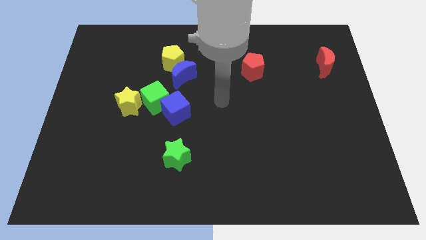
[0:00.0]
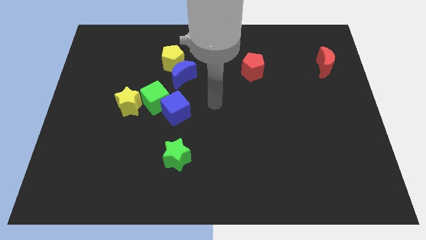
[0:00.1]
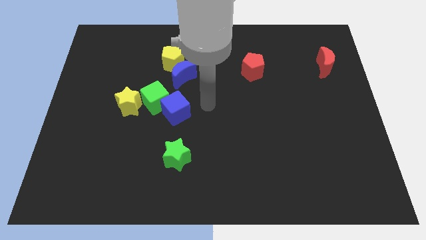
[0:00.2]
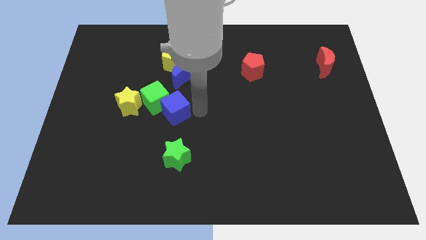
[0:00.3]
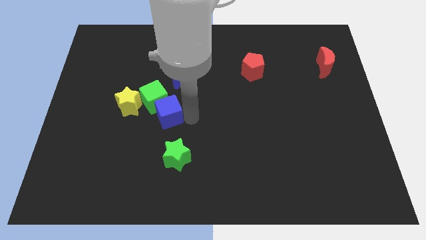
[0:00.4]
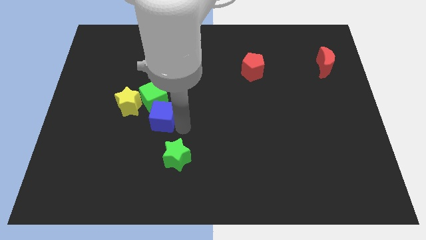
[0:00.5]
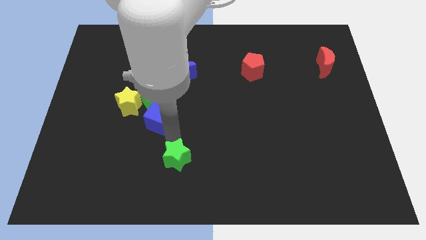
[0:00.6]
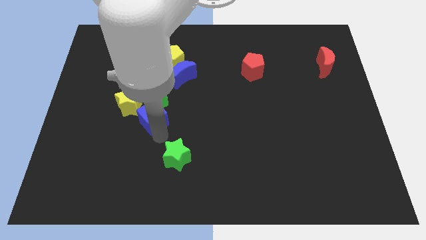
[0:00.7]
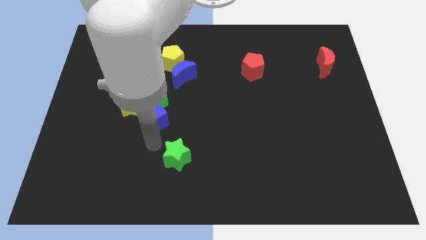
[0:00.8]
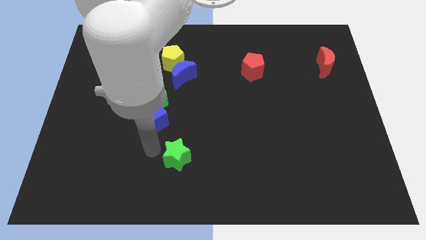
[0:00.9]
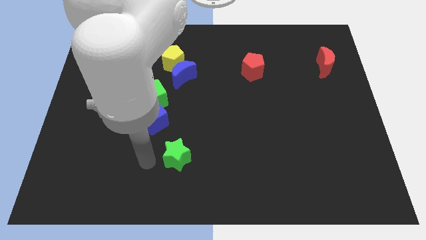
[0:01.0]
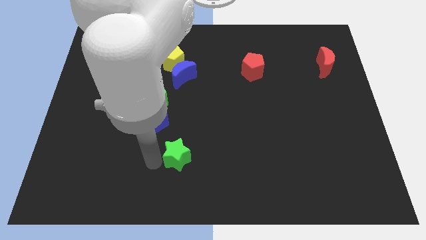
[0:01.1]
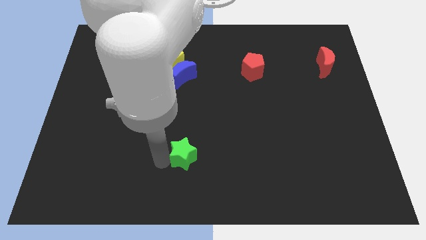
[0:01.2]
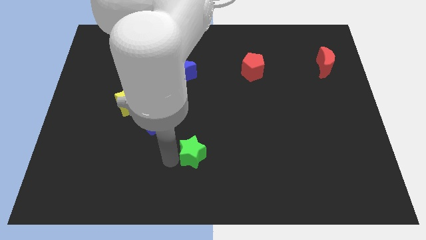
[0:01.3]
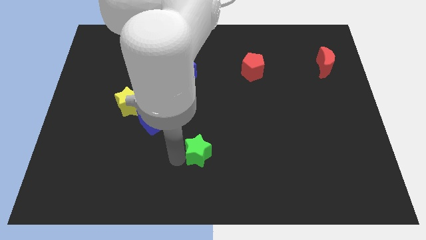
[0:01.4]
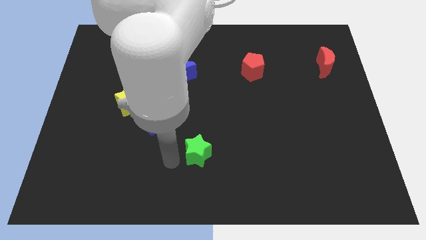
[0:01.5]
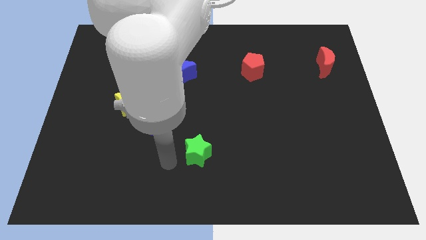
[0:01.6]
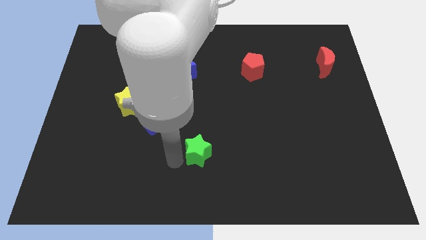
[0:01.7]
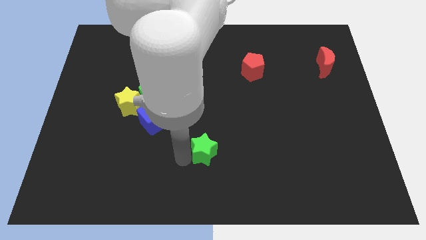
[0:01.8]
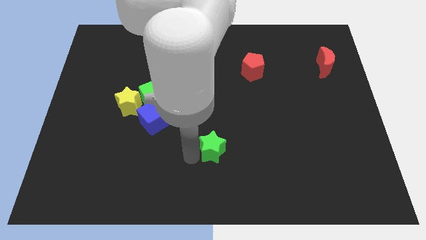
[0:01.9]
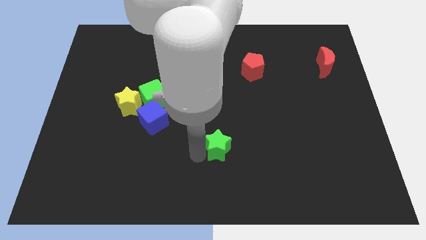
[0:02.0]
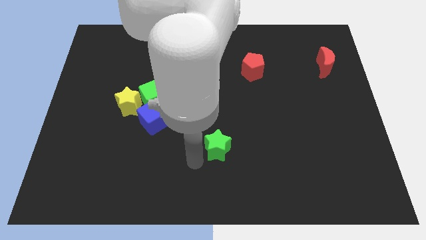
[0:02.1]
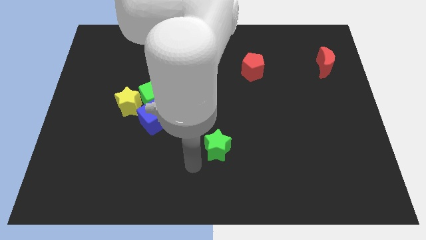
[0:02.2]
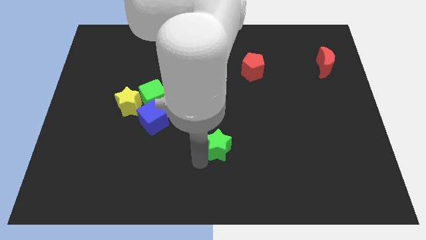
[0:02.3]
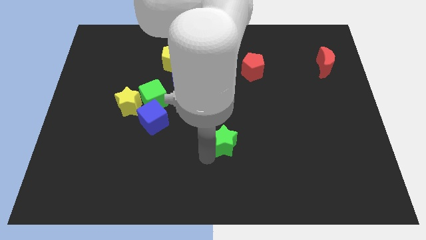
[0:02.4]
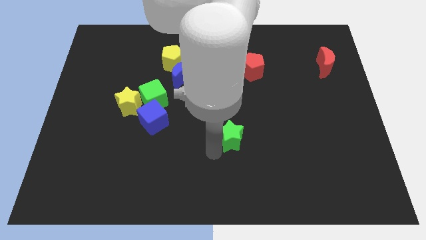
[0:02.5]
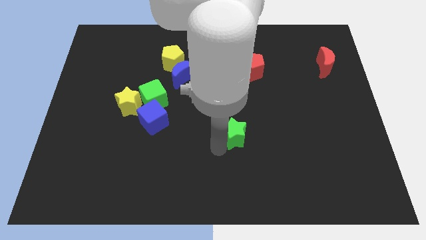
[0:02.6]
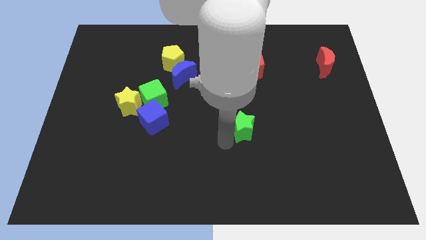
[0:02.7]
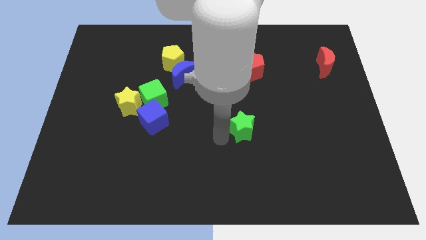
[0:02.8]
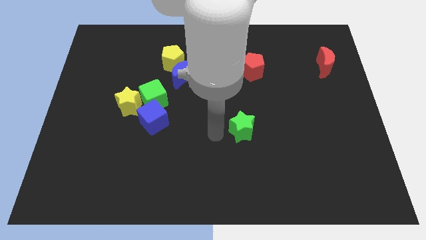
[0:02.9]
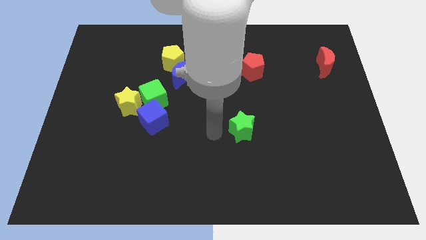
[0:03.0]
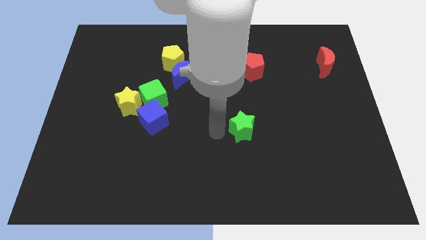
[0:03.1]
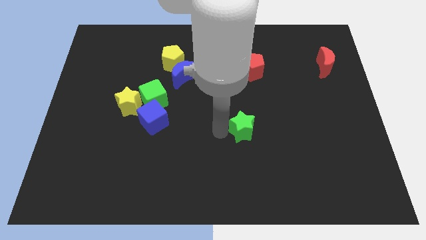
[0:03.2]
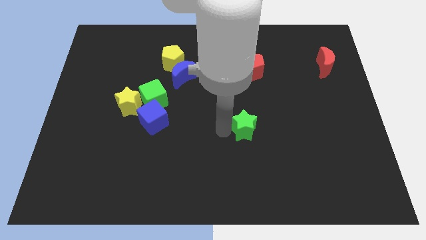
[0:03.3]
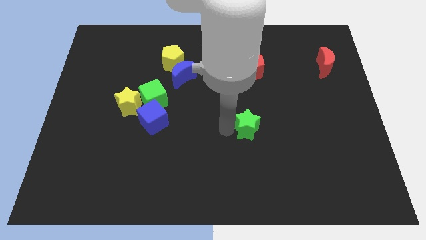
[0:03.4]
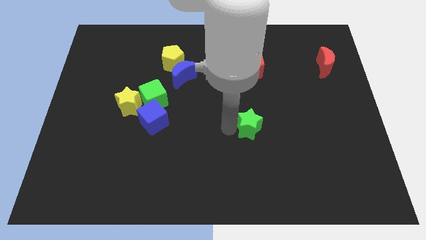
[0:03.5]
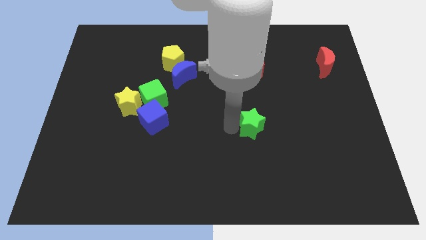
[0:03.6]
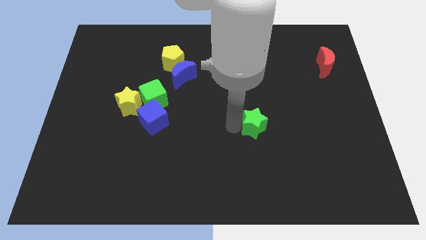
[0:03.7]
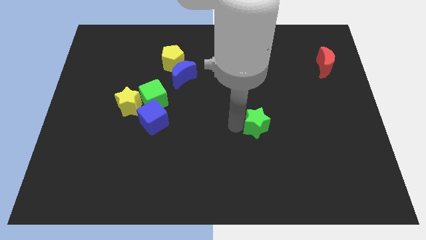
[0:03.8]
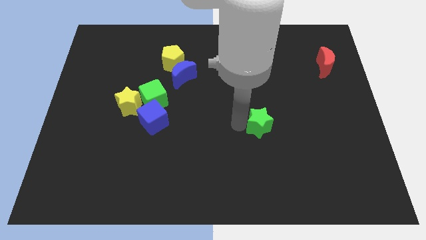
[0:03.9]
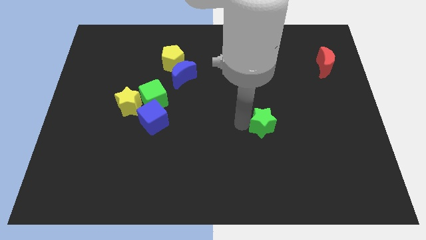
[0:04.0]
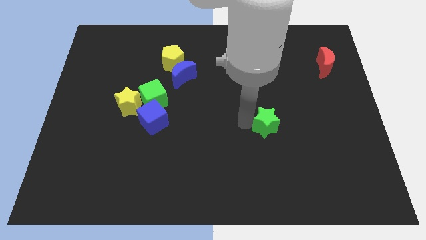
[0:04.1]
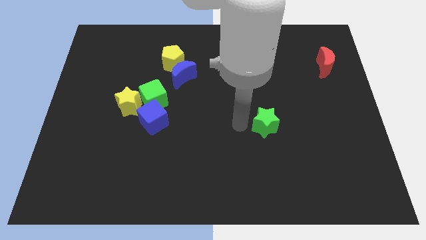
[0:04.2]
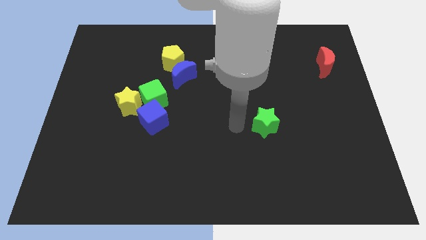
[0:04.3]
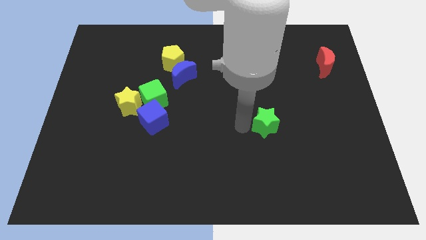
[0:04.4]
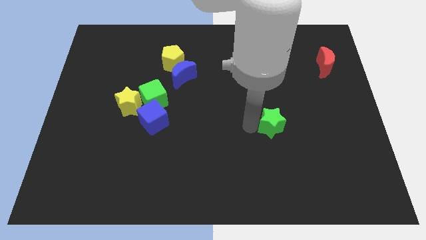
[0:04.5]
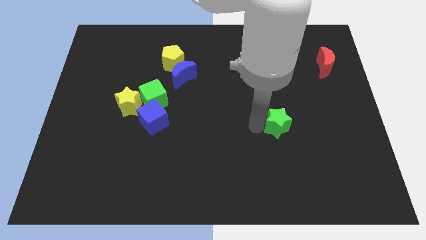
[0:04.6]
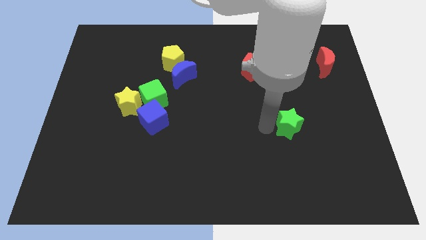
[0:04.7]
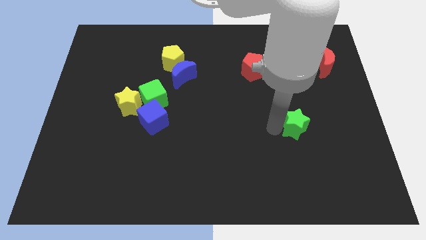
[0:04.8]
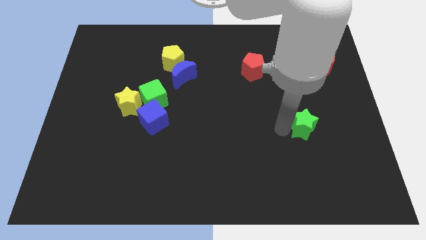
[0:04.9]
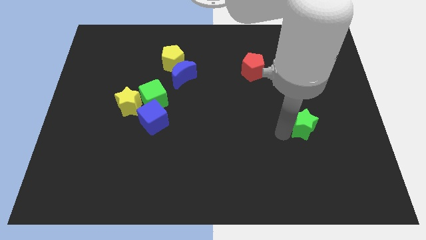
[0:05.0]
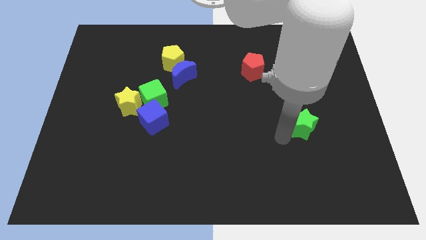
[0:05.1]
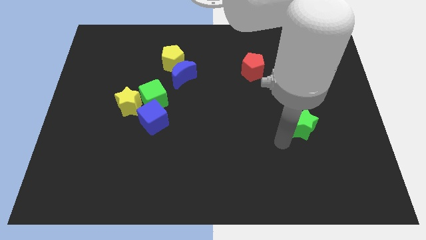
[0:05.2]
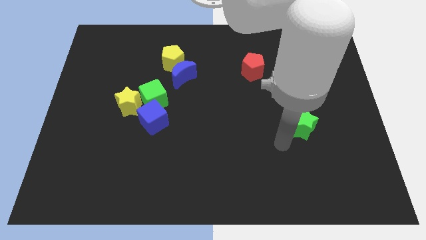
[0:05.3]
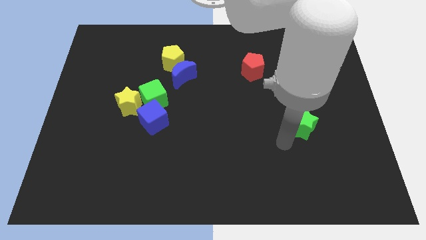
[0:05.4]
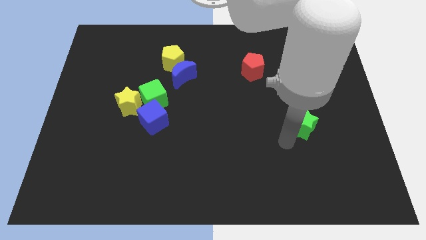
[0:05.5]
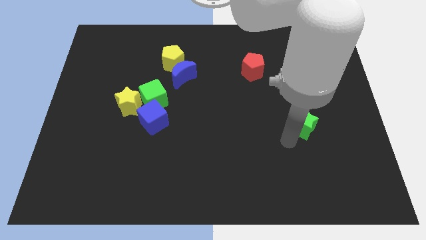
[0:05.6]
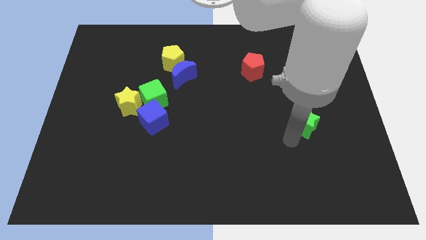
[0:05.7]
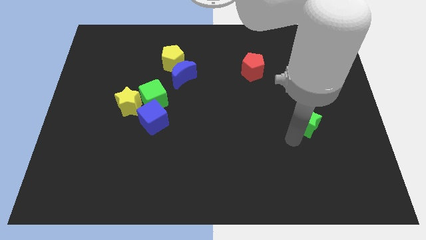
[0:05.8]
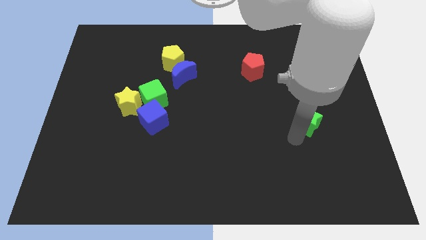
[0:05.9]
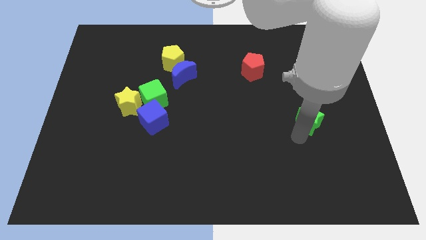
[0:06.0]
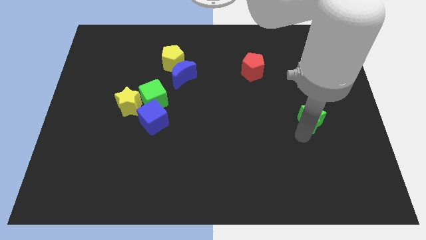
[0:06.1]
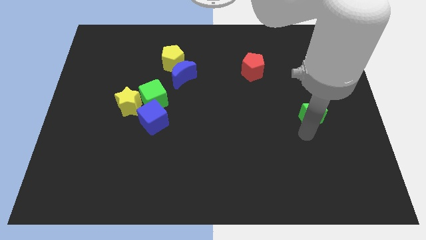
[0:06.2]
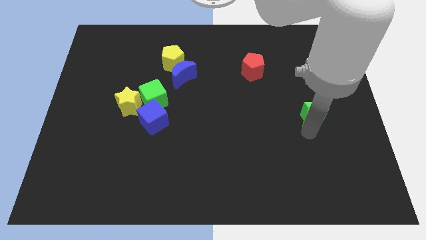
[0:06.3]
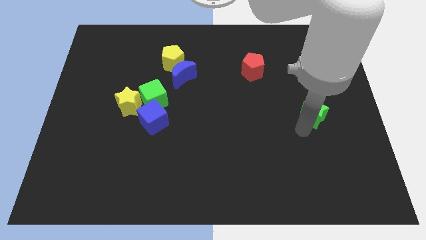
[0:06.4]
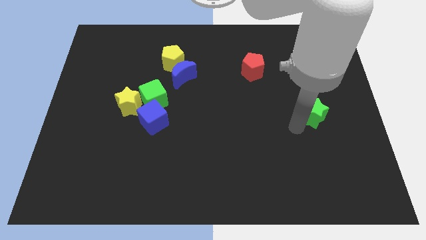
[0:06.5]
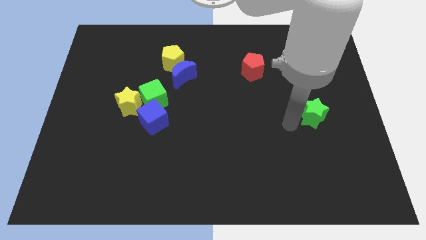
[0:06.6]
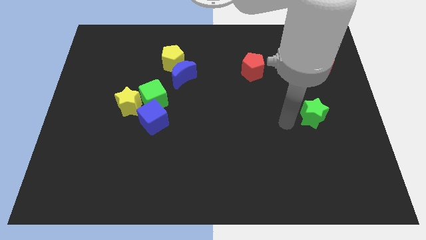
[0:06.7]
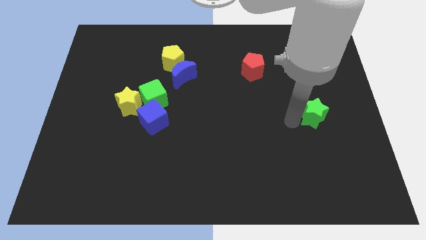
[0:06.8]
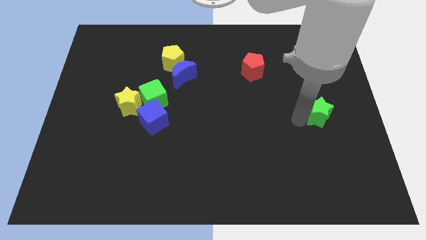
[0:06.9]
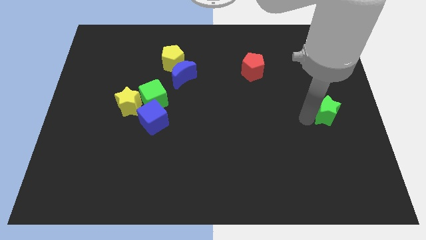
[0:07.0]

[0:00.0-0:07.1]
slide the green star to the center right
